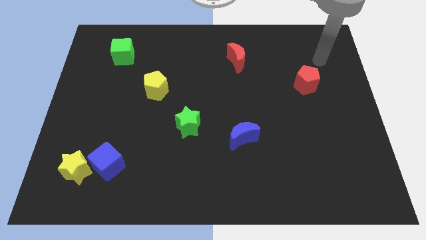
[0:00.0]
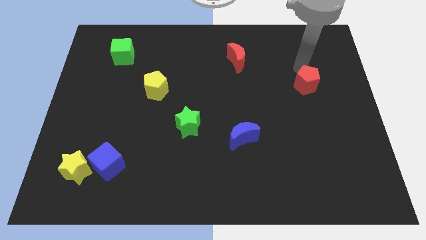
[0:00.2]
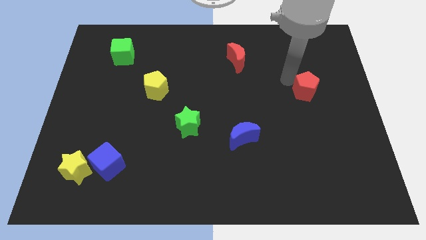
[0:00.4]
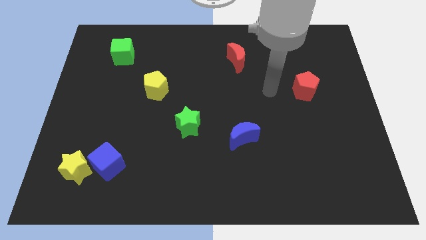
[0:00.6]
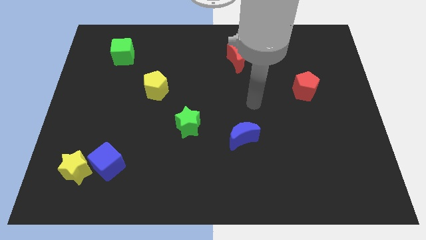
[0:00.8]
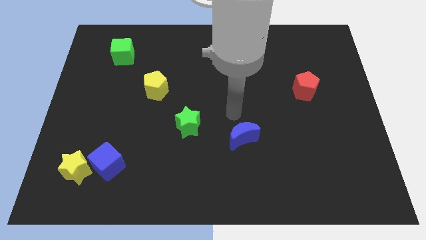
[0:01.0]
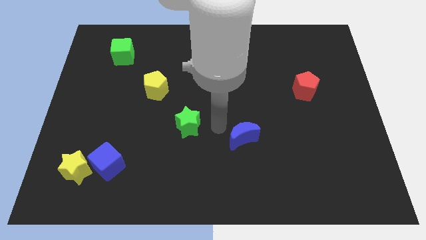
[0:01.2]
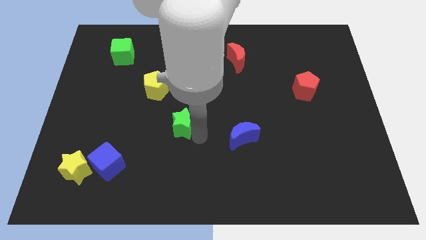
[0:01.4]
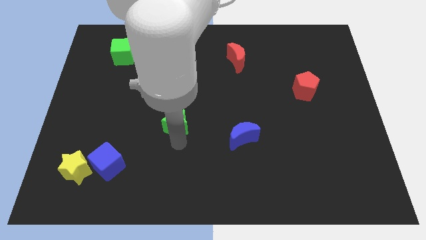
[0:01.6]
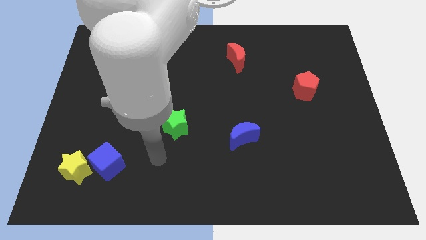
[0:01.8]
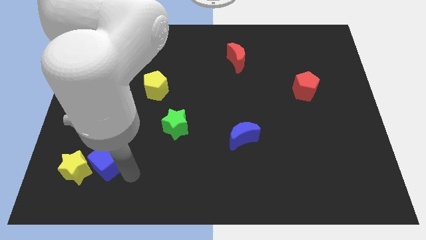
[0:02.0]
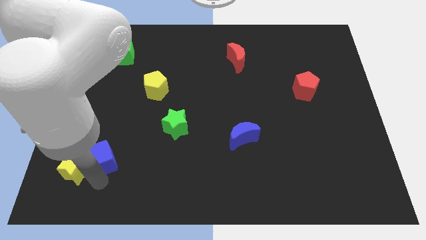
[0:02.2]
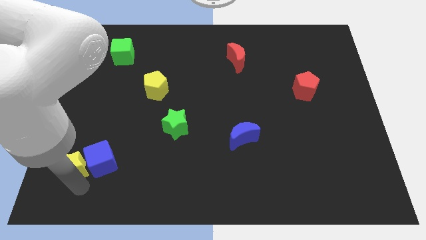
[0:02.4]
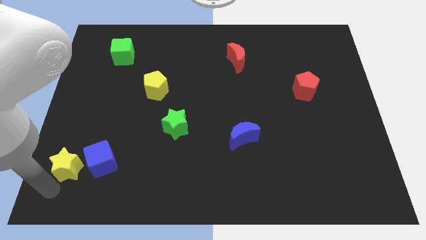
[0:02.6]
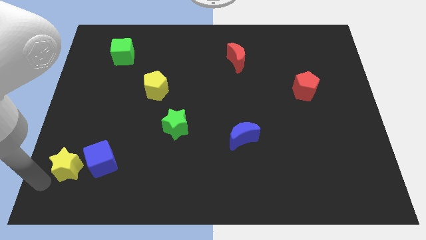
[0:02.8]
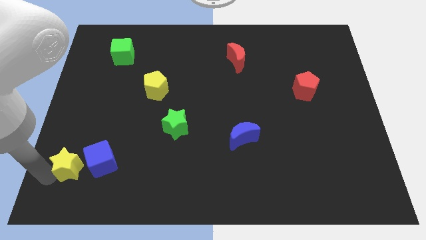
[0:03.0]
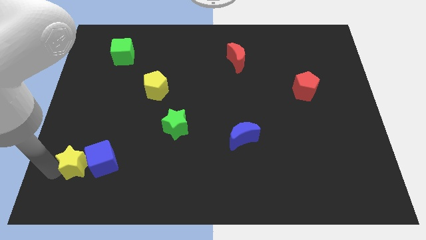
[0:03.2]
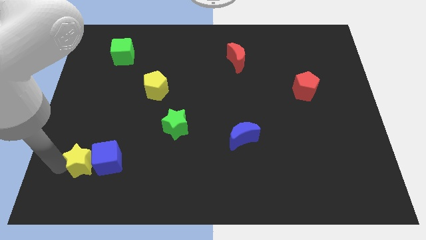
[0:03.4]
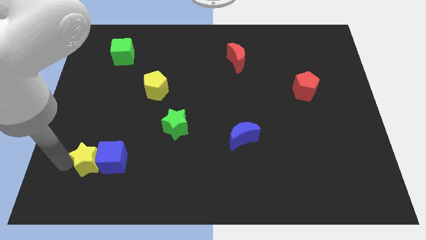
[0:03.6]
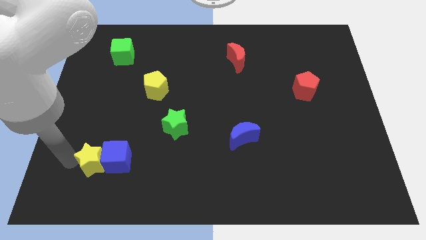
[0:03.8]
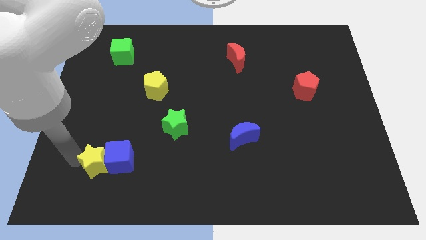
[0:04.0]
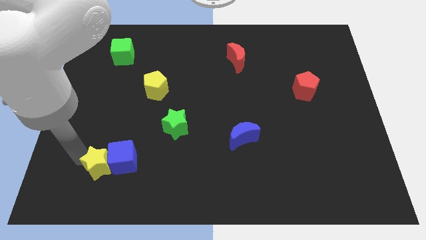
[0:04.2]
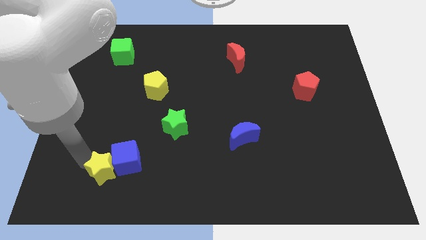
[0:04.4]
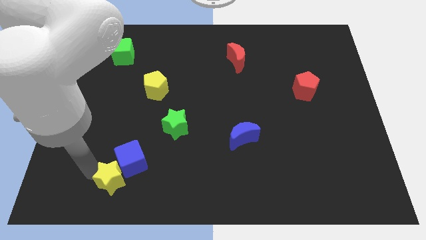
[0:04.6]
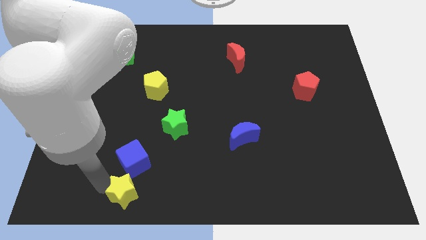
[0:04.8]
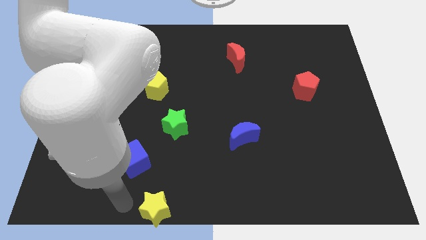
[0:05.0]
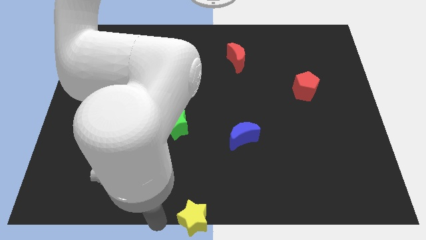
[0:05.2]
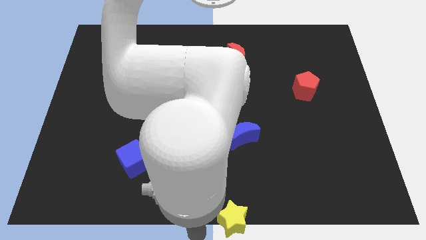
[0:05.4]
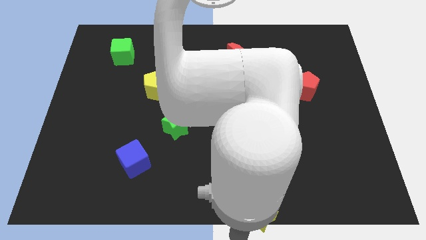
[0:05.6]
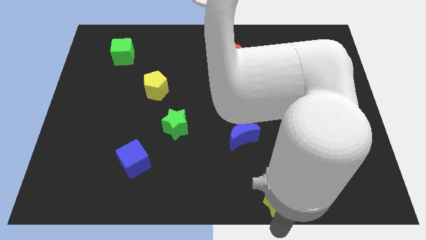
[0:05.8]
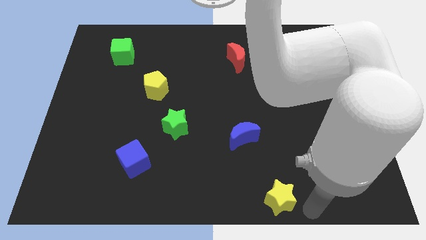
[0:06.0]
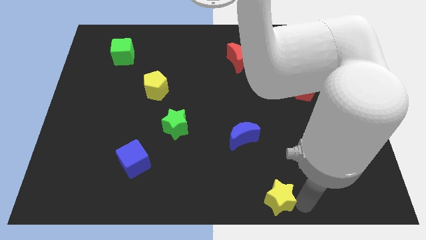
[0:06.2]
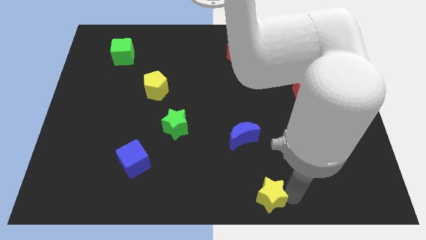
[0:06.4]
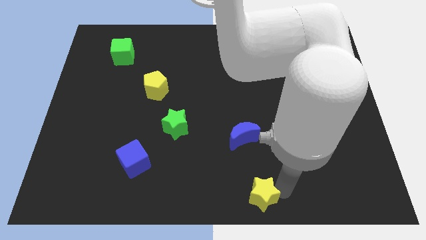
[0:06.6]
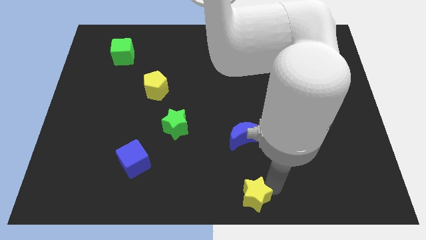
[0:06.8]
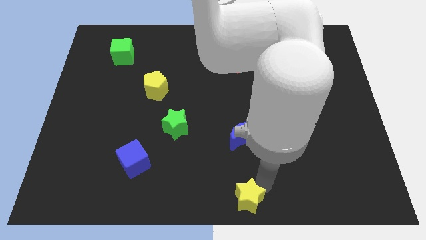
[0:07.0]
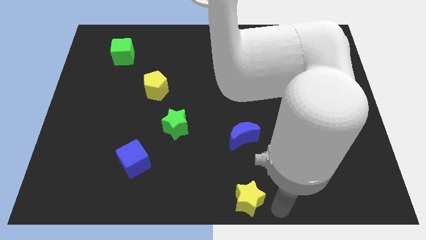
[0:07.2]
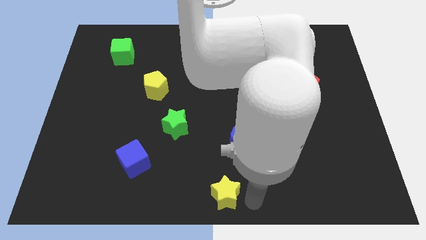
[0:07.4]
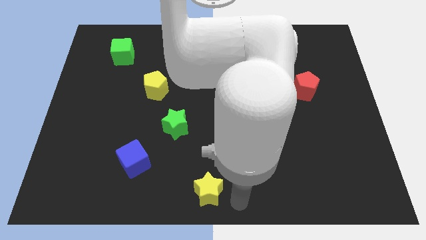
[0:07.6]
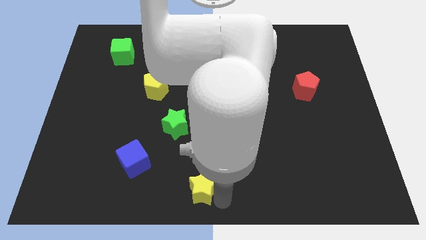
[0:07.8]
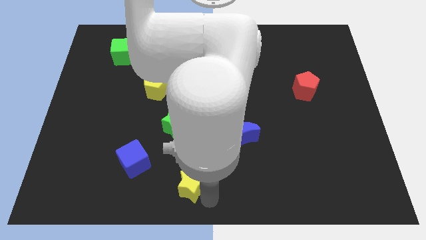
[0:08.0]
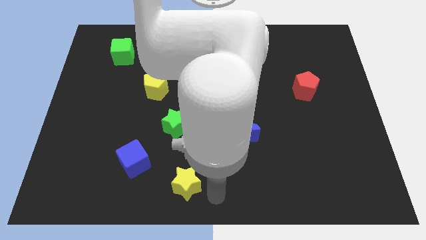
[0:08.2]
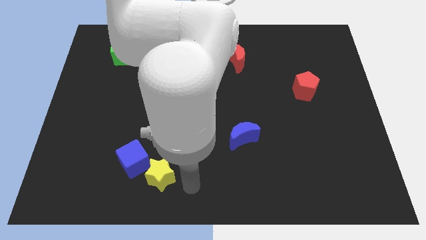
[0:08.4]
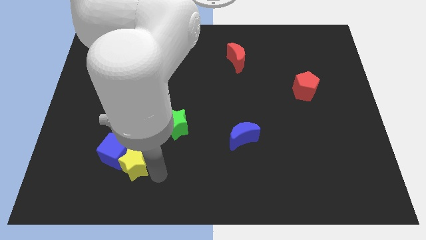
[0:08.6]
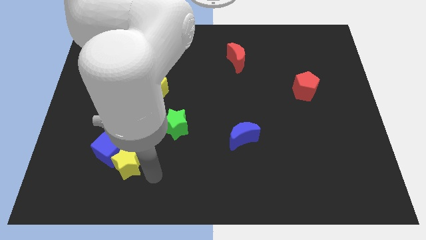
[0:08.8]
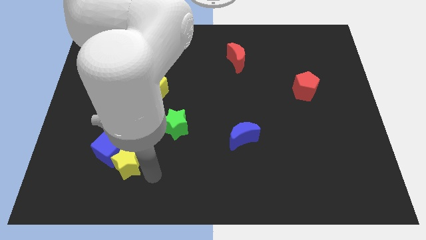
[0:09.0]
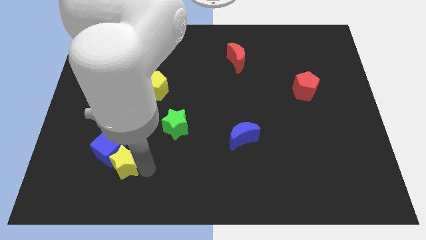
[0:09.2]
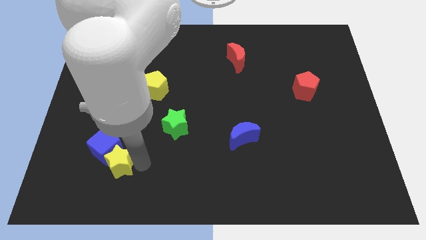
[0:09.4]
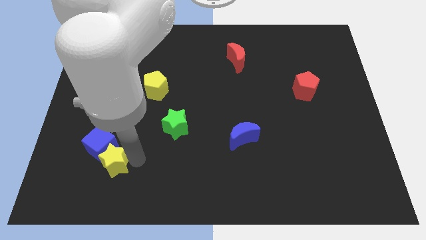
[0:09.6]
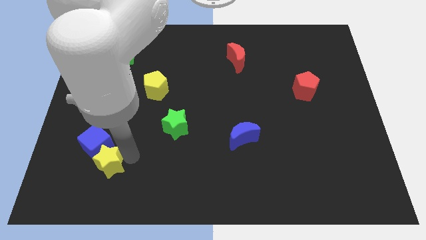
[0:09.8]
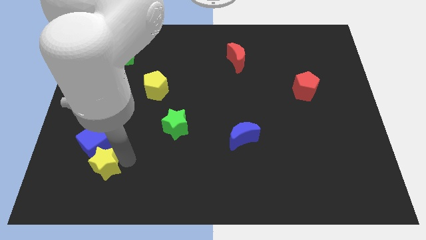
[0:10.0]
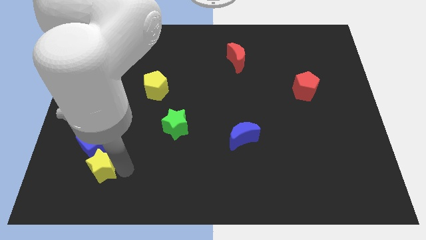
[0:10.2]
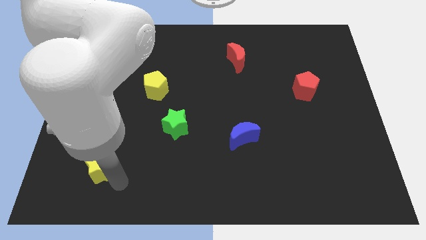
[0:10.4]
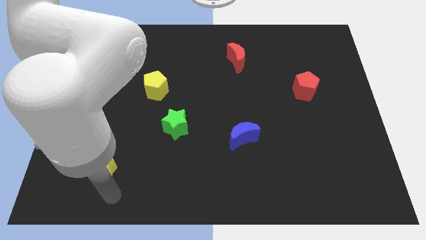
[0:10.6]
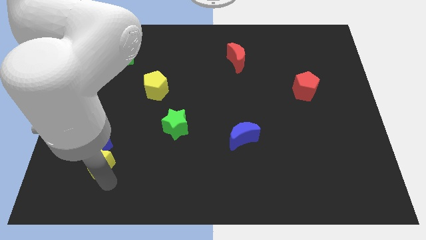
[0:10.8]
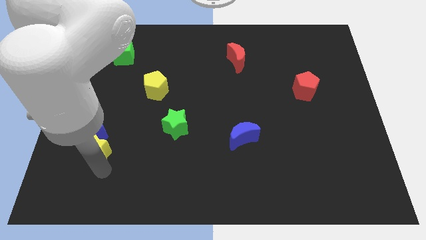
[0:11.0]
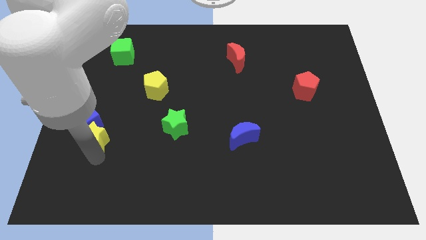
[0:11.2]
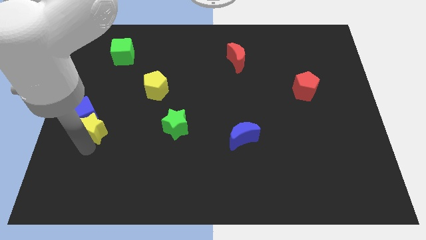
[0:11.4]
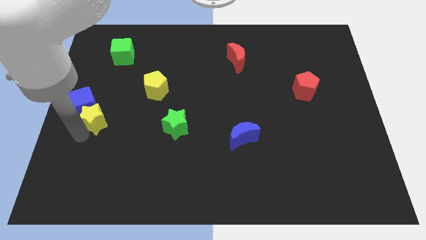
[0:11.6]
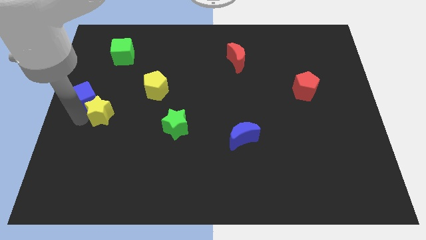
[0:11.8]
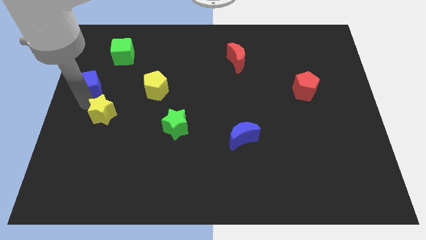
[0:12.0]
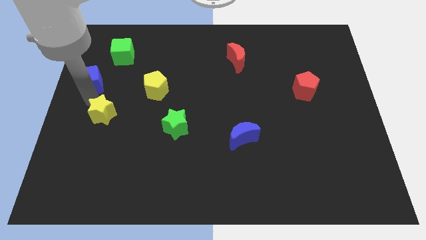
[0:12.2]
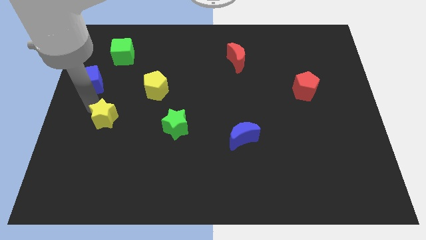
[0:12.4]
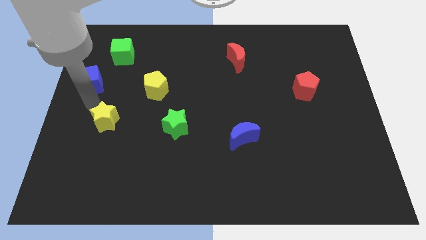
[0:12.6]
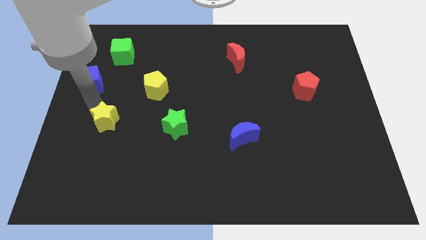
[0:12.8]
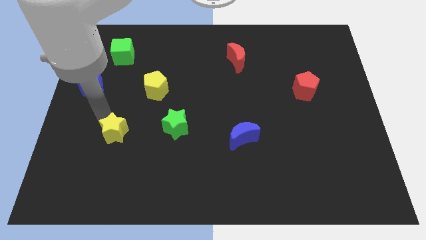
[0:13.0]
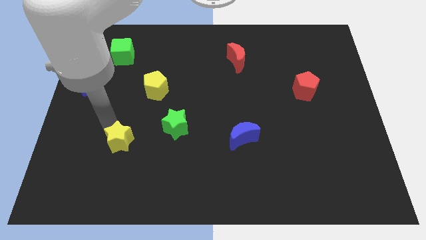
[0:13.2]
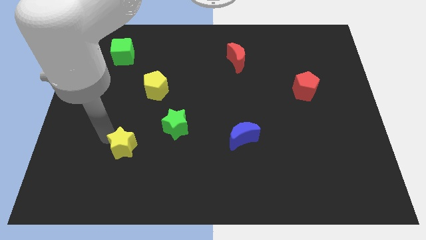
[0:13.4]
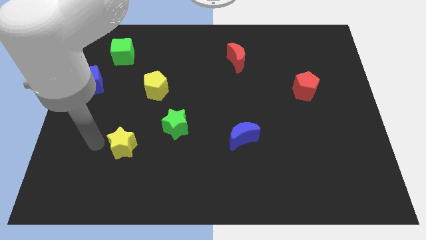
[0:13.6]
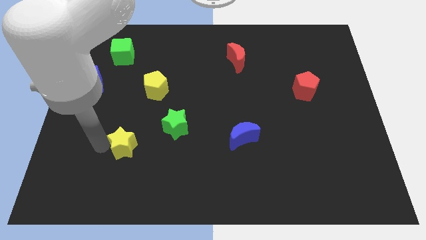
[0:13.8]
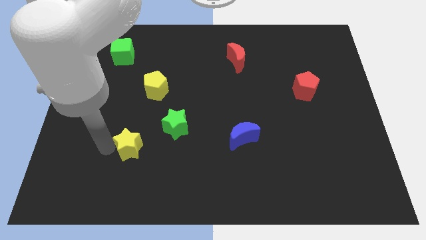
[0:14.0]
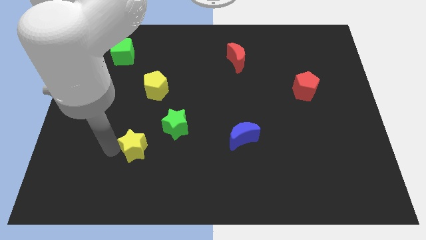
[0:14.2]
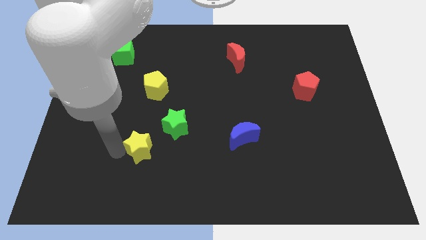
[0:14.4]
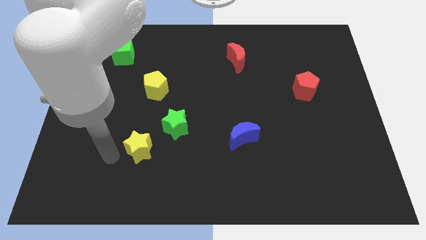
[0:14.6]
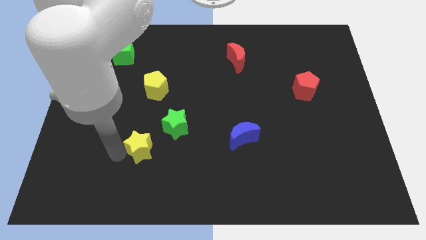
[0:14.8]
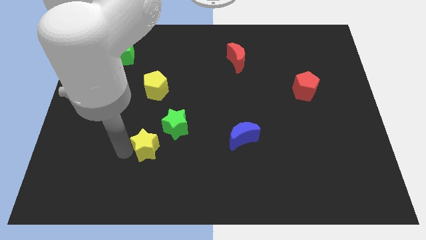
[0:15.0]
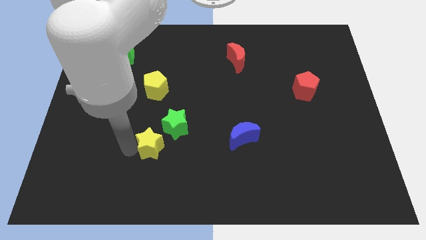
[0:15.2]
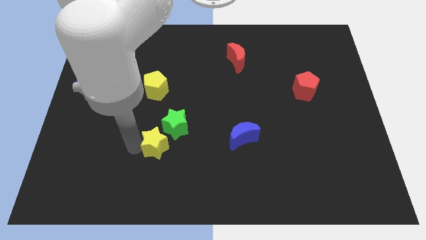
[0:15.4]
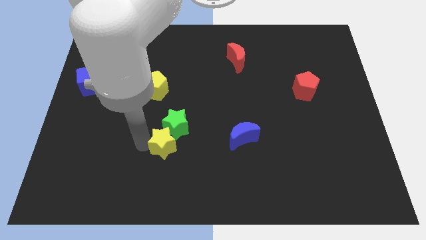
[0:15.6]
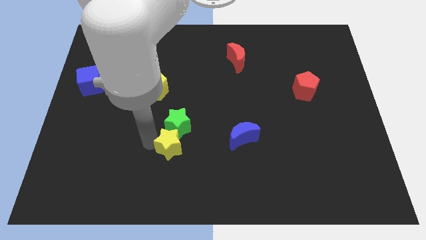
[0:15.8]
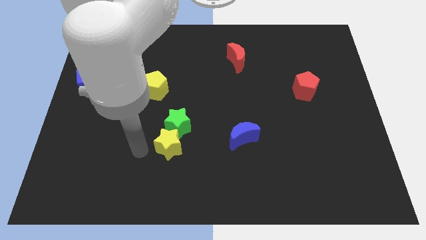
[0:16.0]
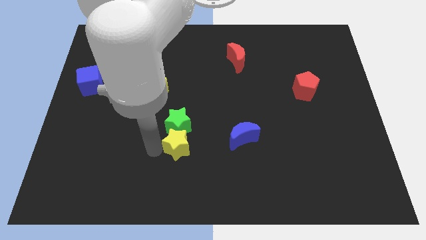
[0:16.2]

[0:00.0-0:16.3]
move the yellow star diagonally down and to the right of the green star
